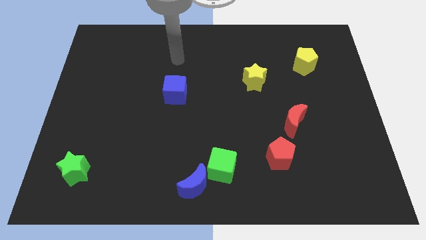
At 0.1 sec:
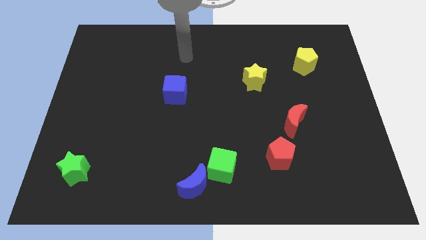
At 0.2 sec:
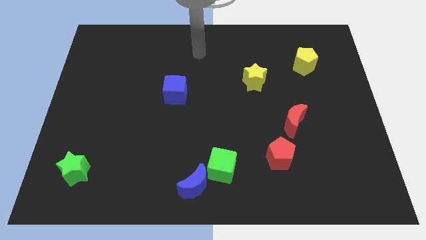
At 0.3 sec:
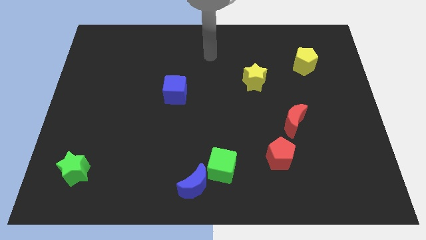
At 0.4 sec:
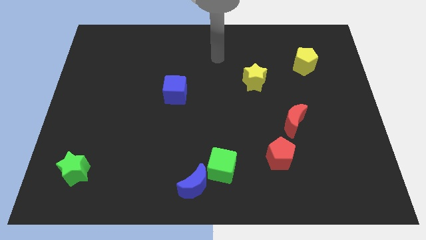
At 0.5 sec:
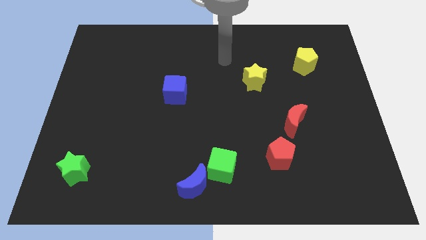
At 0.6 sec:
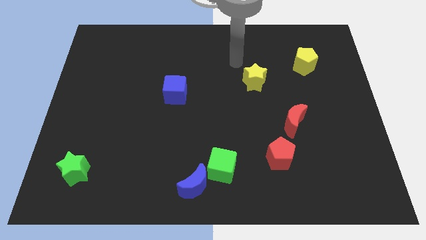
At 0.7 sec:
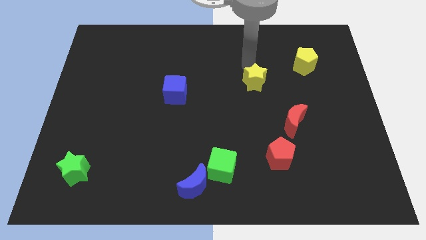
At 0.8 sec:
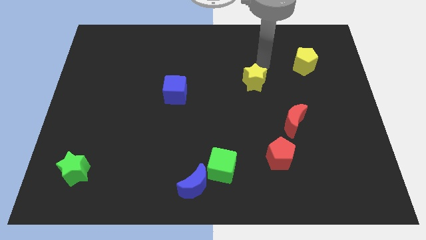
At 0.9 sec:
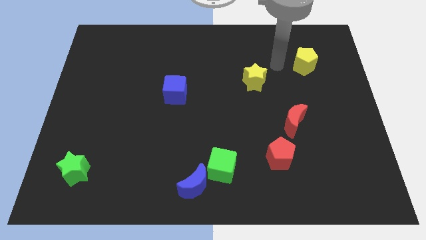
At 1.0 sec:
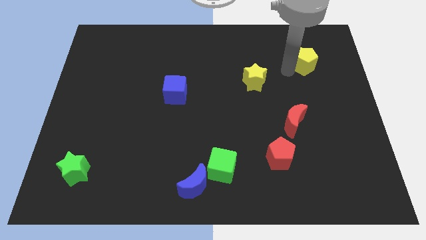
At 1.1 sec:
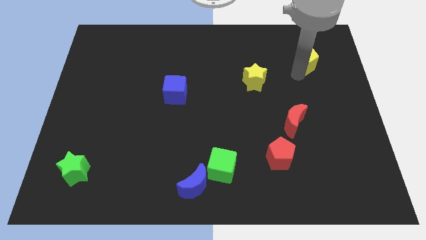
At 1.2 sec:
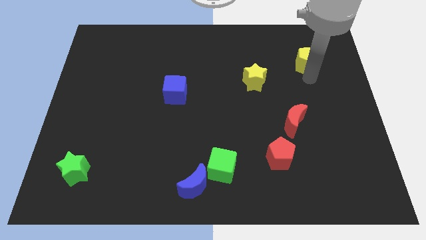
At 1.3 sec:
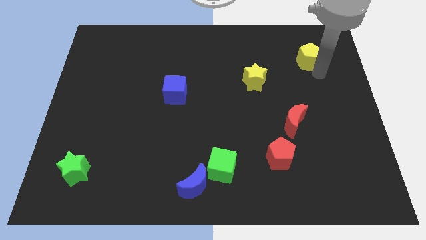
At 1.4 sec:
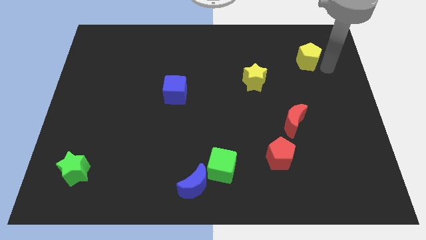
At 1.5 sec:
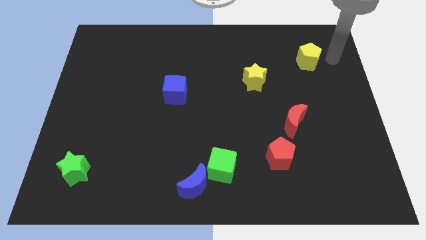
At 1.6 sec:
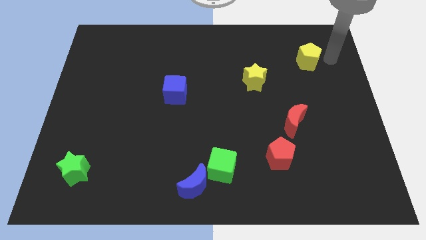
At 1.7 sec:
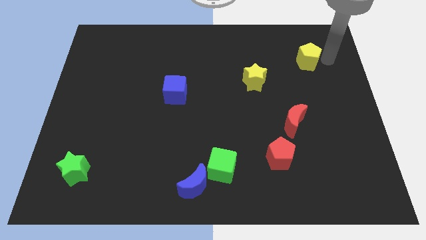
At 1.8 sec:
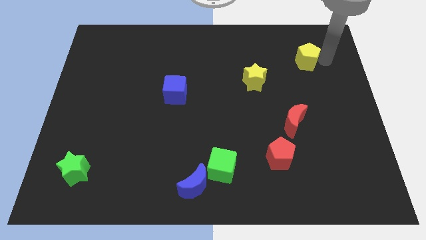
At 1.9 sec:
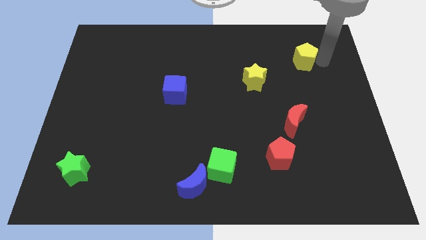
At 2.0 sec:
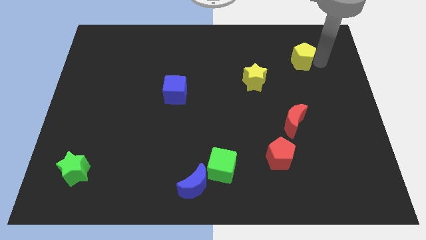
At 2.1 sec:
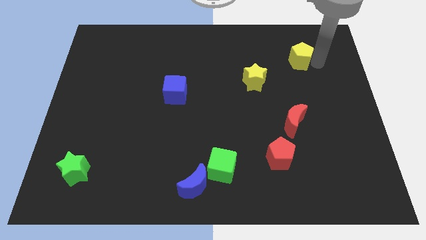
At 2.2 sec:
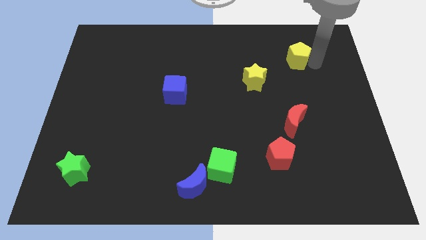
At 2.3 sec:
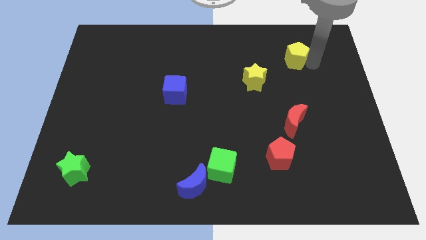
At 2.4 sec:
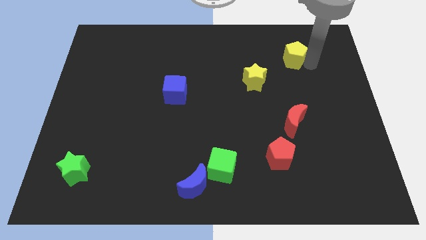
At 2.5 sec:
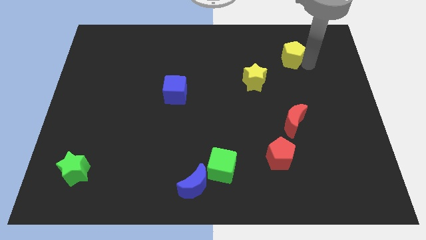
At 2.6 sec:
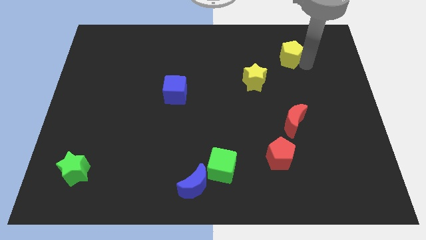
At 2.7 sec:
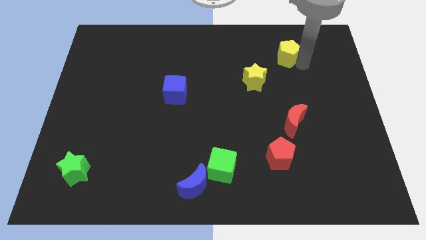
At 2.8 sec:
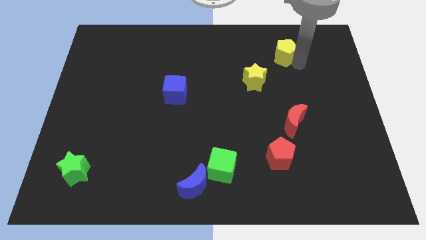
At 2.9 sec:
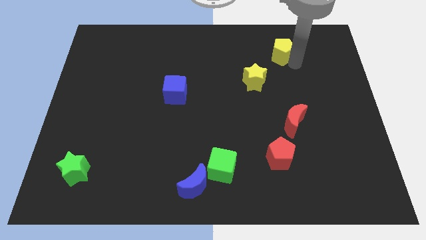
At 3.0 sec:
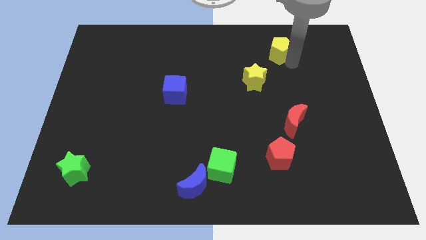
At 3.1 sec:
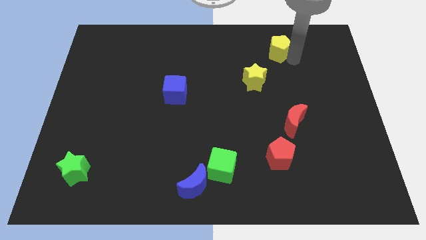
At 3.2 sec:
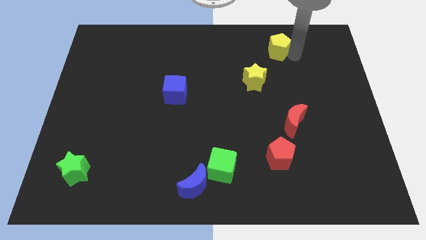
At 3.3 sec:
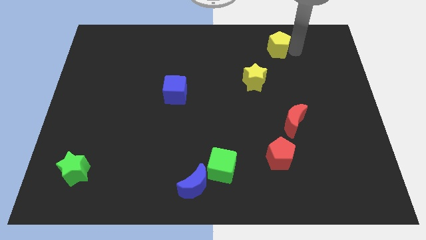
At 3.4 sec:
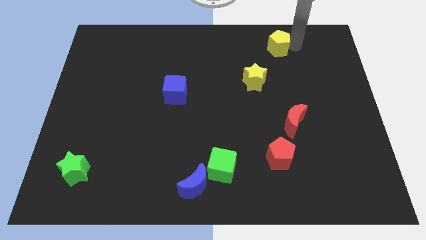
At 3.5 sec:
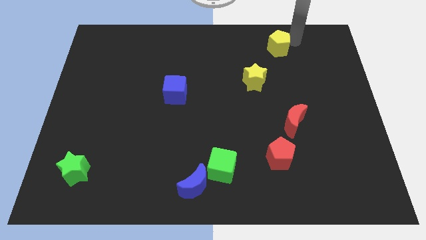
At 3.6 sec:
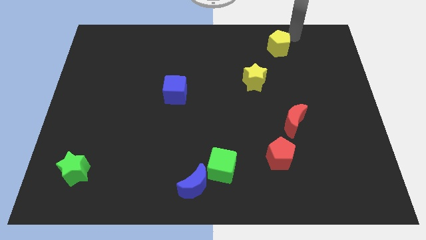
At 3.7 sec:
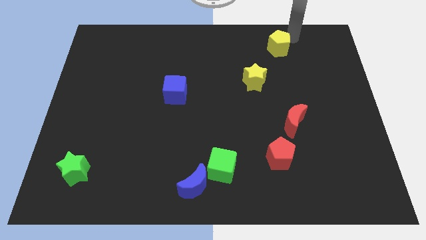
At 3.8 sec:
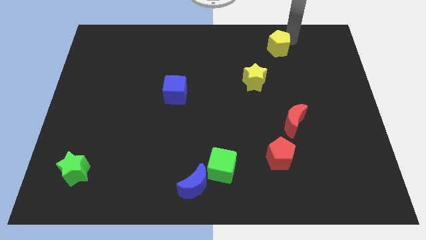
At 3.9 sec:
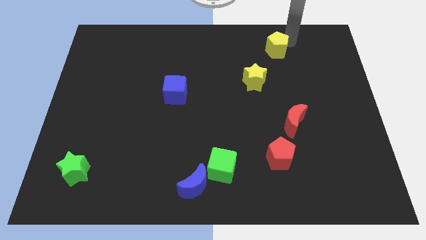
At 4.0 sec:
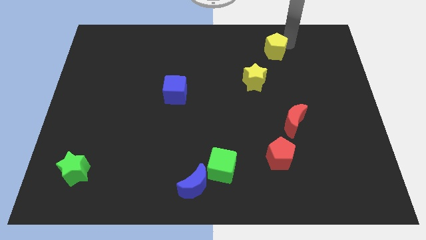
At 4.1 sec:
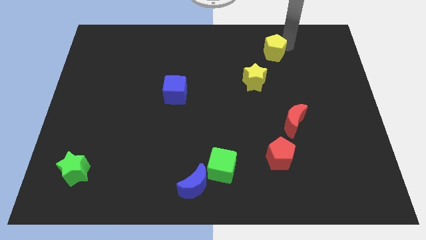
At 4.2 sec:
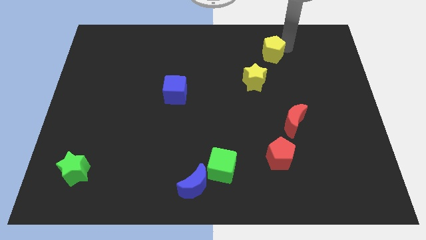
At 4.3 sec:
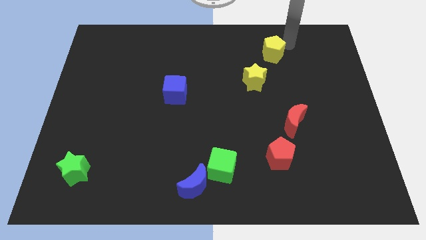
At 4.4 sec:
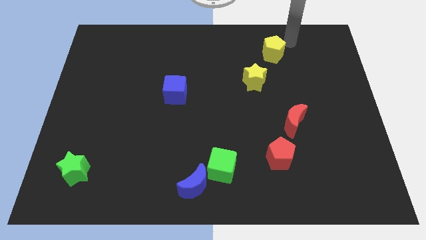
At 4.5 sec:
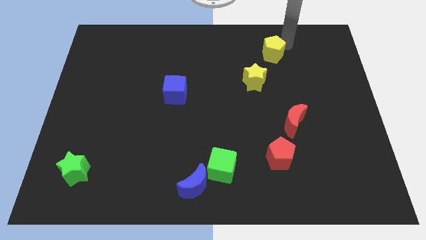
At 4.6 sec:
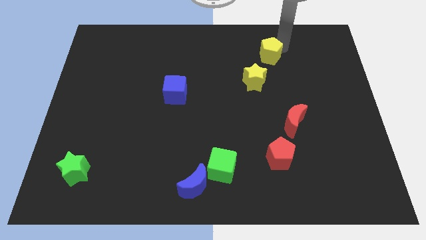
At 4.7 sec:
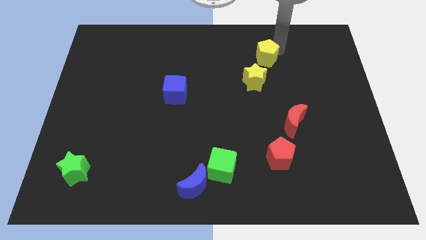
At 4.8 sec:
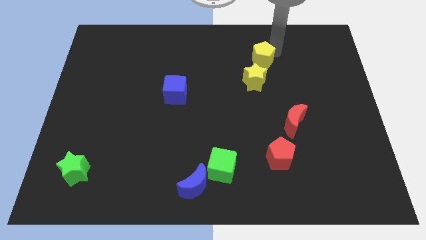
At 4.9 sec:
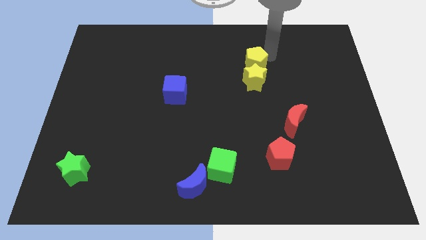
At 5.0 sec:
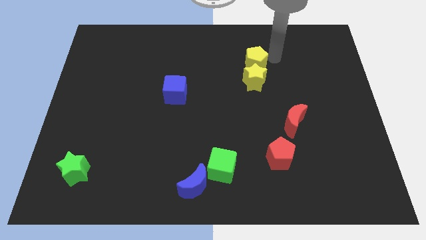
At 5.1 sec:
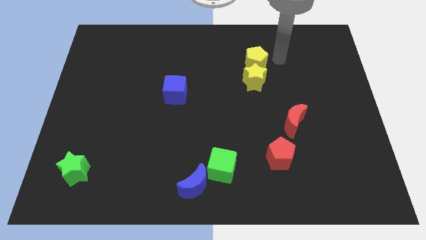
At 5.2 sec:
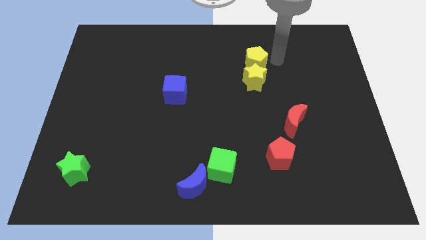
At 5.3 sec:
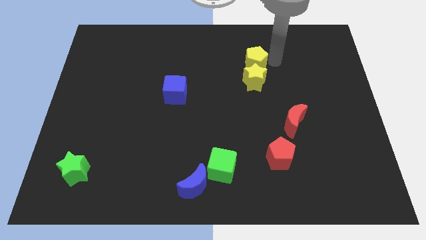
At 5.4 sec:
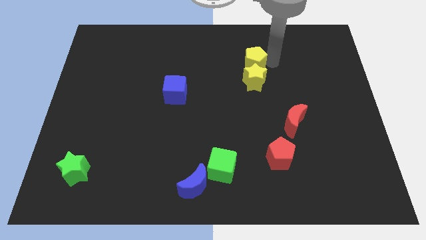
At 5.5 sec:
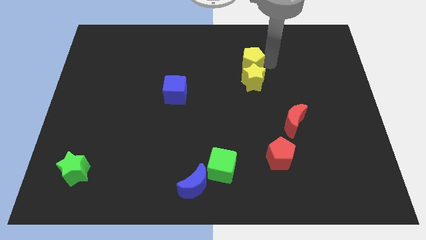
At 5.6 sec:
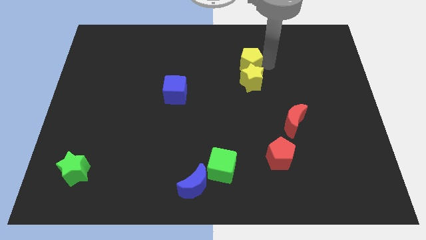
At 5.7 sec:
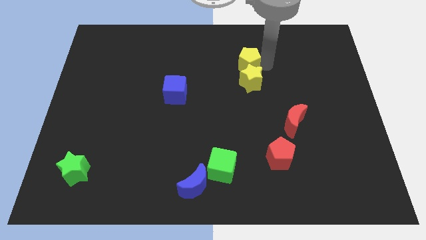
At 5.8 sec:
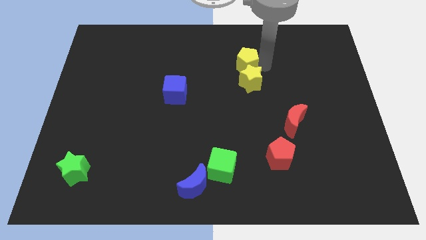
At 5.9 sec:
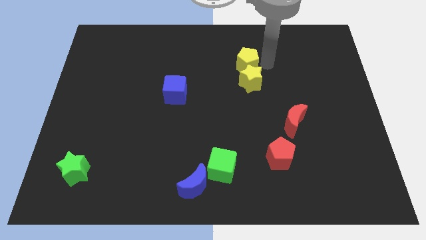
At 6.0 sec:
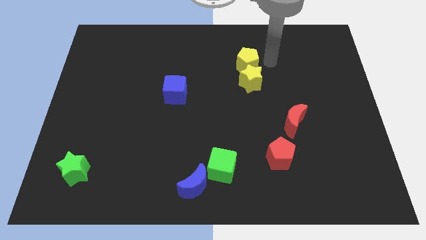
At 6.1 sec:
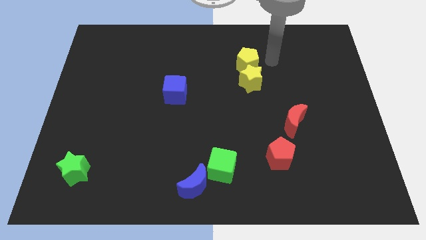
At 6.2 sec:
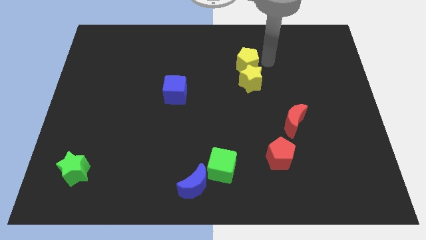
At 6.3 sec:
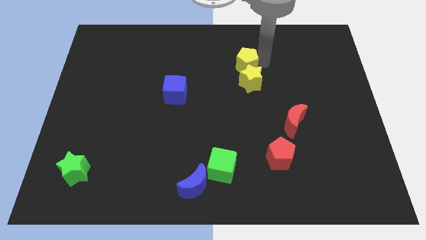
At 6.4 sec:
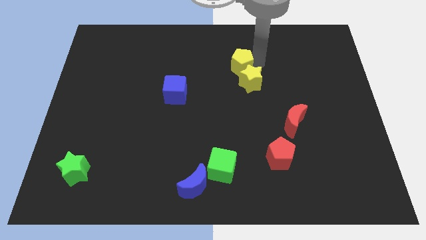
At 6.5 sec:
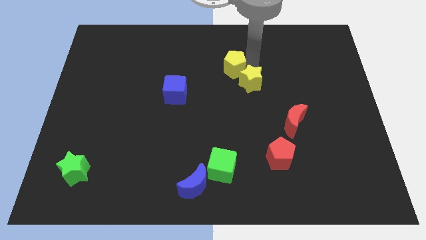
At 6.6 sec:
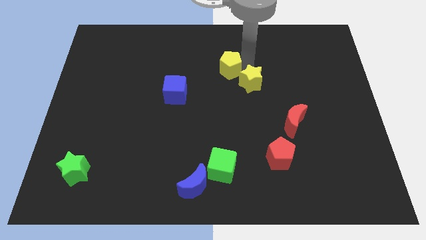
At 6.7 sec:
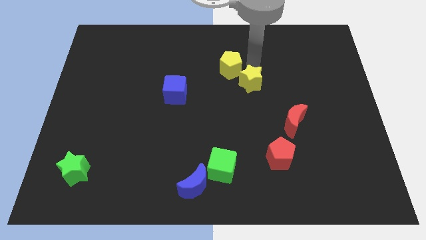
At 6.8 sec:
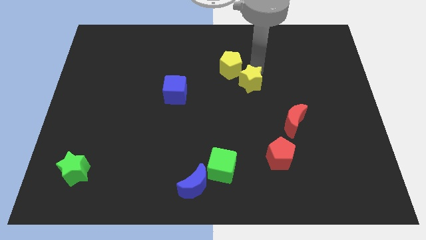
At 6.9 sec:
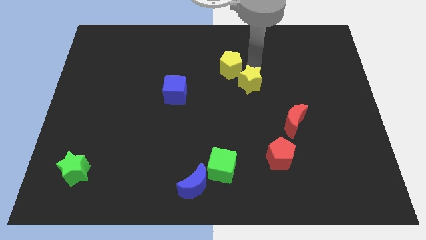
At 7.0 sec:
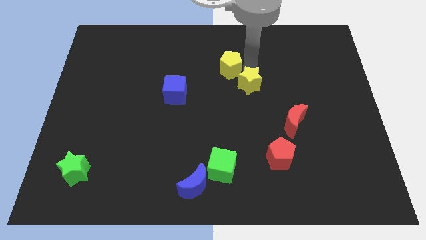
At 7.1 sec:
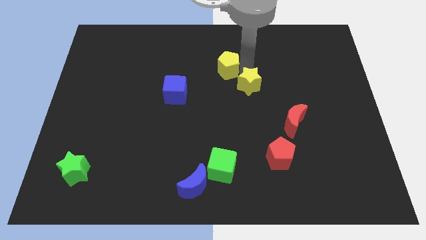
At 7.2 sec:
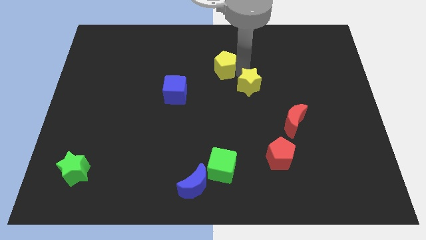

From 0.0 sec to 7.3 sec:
move the yellow pentagon left

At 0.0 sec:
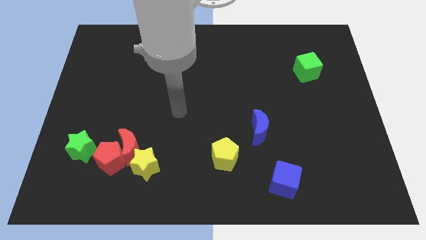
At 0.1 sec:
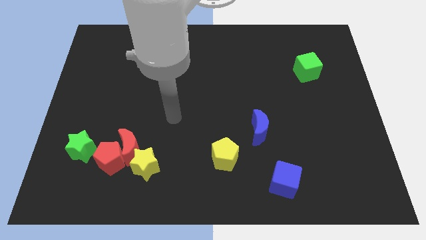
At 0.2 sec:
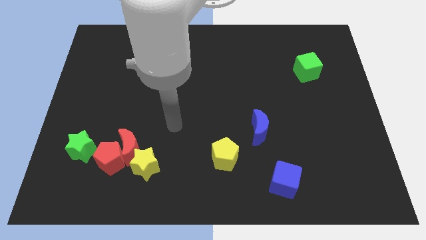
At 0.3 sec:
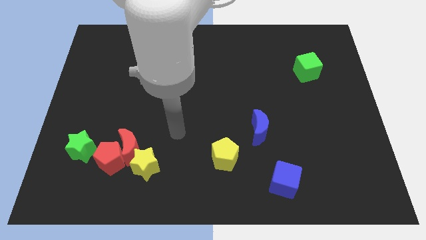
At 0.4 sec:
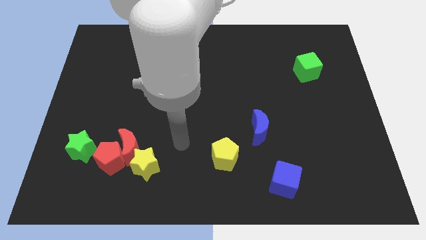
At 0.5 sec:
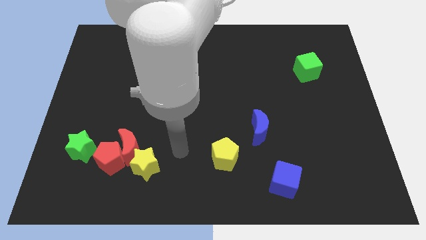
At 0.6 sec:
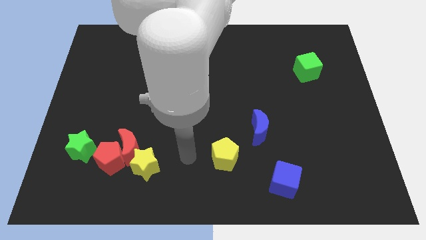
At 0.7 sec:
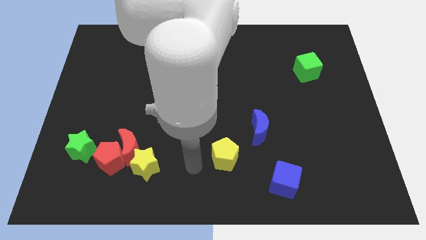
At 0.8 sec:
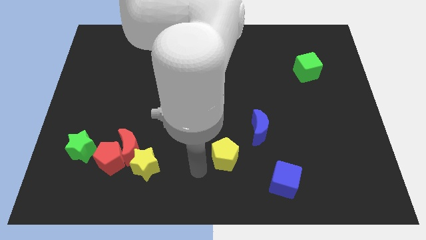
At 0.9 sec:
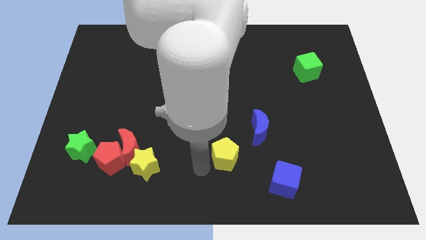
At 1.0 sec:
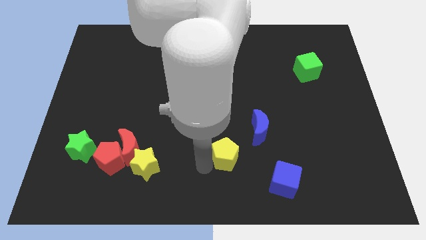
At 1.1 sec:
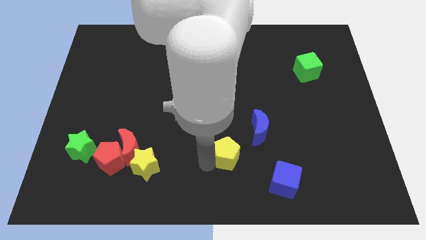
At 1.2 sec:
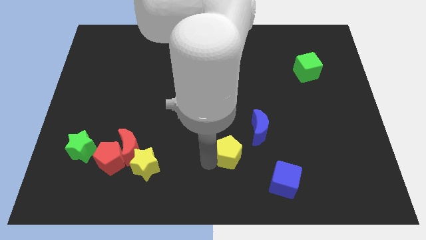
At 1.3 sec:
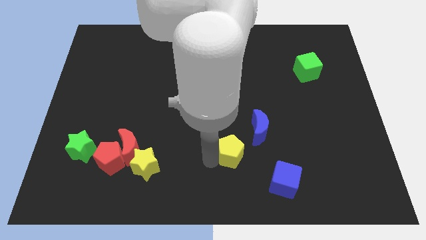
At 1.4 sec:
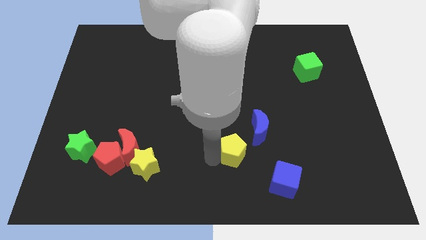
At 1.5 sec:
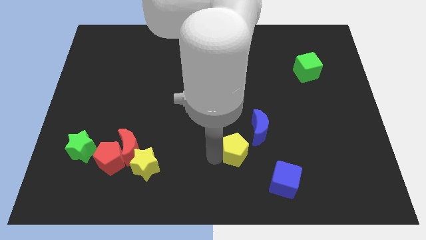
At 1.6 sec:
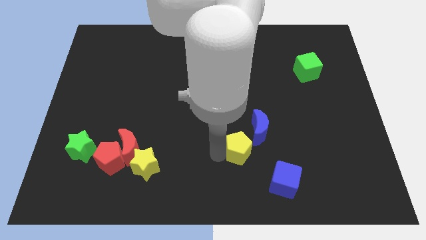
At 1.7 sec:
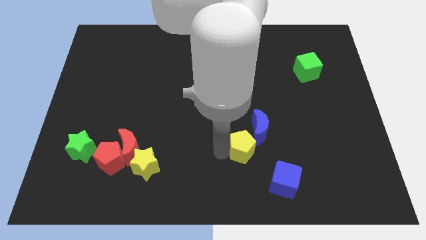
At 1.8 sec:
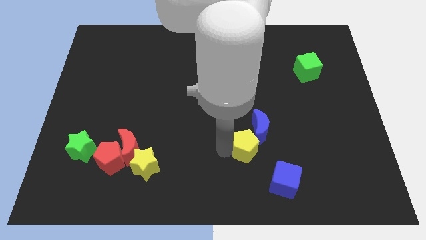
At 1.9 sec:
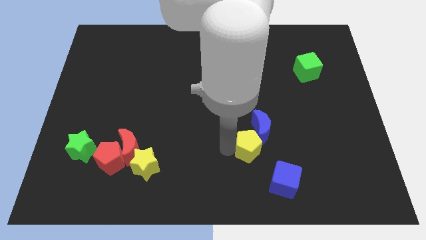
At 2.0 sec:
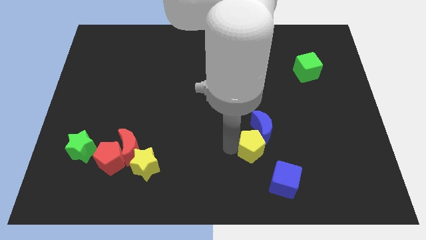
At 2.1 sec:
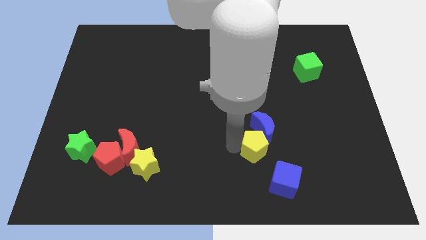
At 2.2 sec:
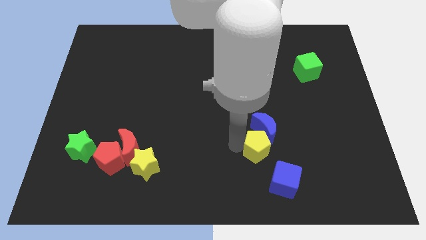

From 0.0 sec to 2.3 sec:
slide the yellow pentagon right slightly
